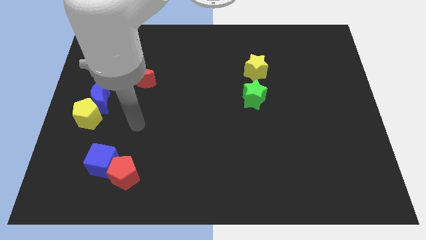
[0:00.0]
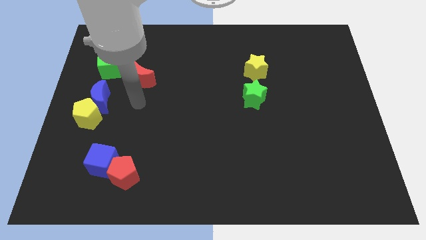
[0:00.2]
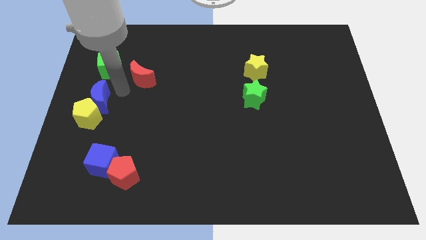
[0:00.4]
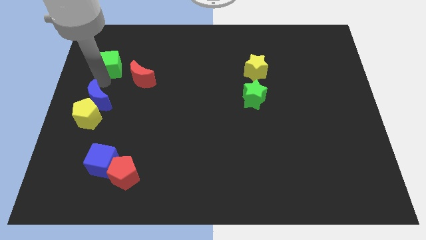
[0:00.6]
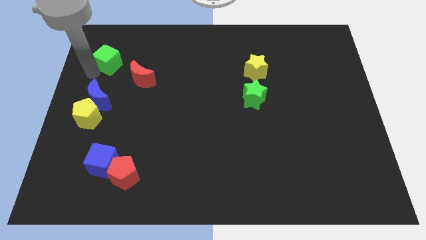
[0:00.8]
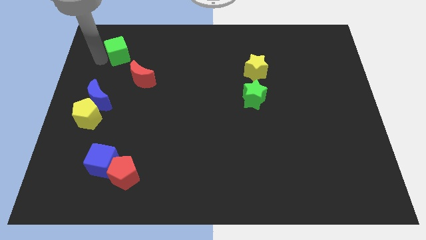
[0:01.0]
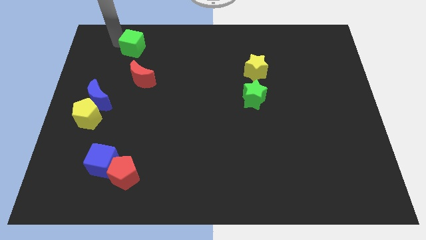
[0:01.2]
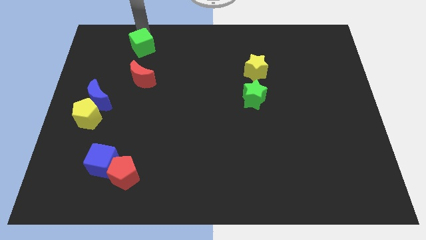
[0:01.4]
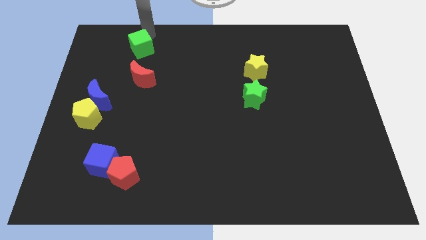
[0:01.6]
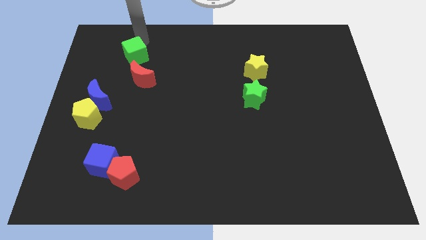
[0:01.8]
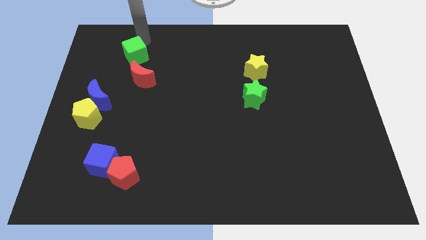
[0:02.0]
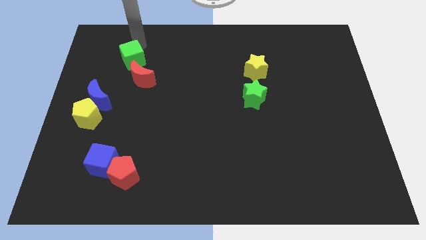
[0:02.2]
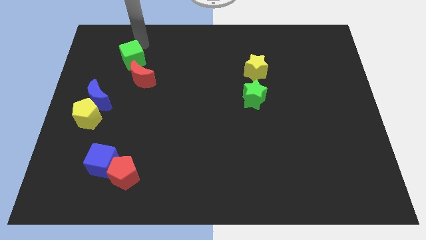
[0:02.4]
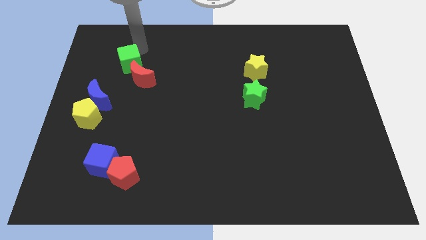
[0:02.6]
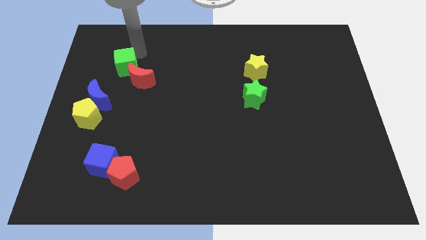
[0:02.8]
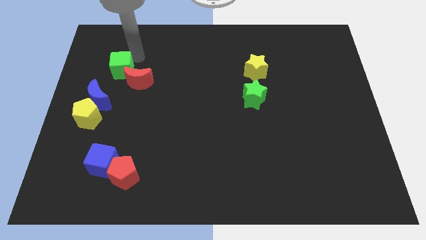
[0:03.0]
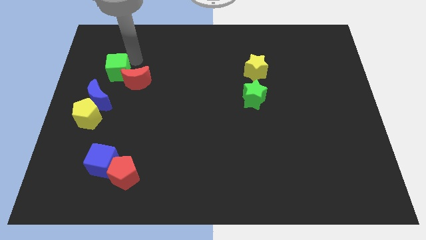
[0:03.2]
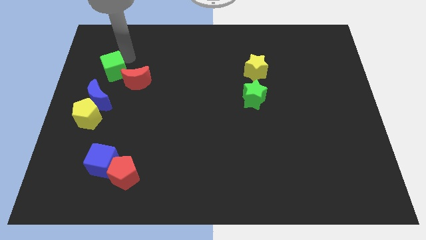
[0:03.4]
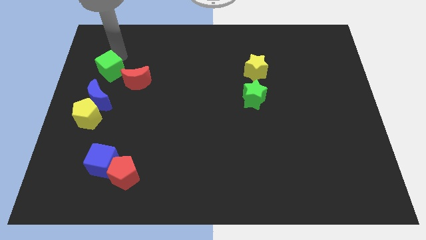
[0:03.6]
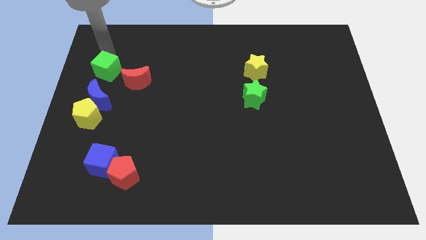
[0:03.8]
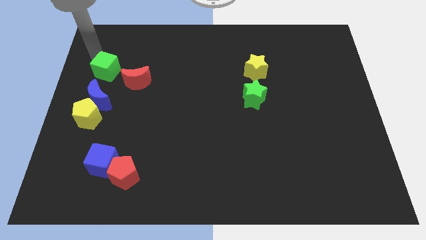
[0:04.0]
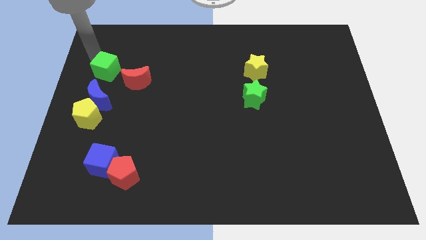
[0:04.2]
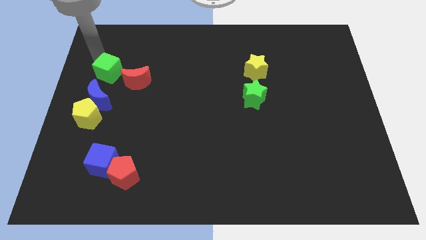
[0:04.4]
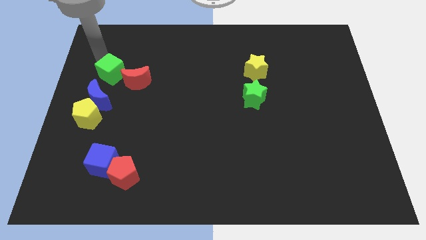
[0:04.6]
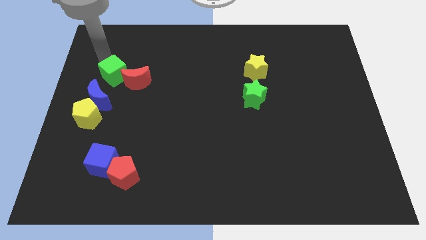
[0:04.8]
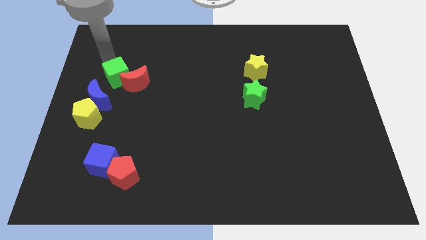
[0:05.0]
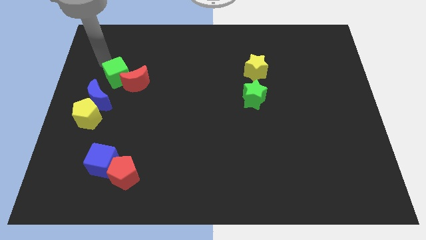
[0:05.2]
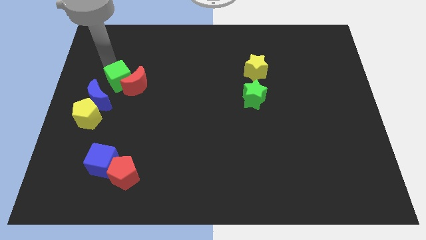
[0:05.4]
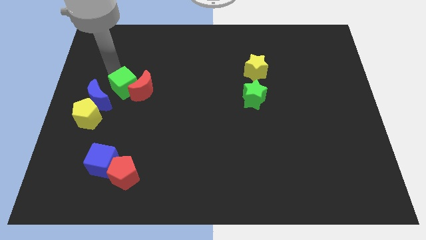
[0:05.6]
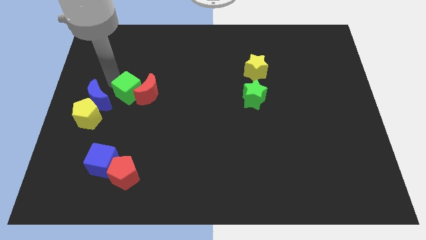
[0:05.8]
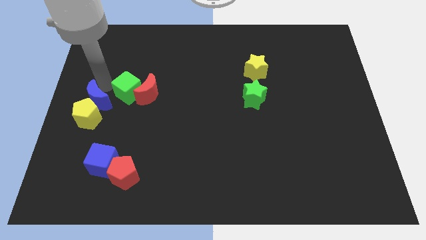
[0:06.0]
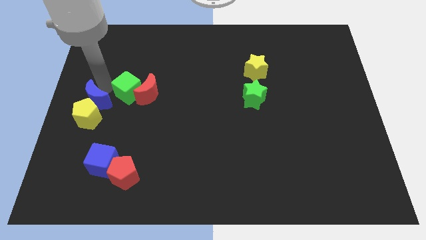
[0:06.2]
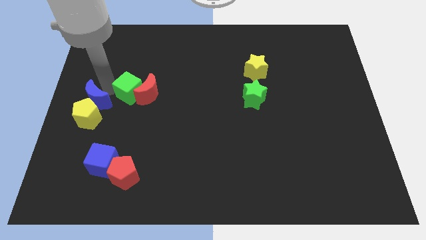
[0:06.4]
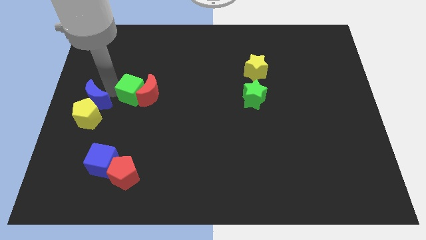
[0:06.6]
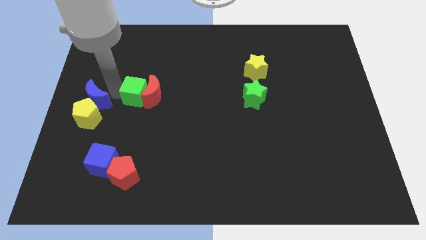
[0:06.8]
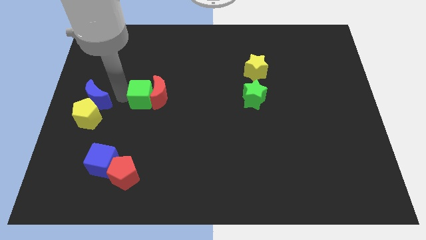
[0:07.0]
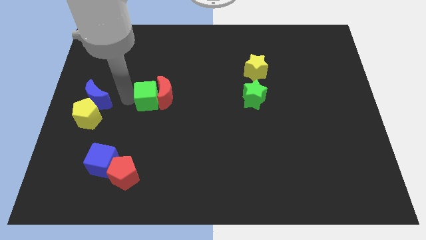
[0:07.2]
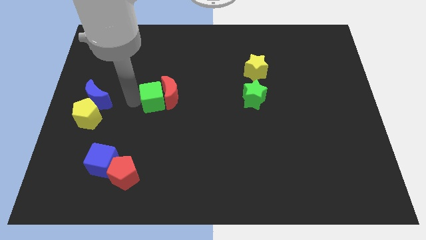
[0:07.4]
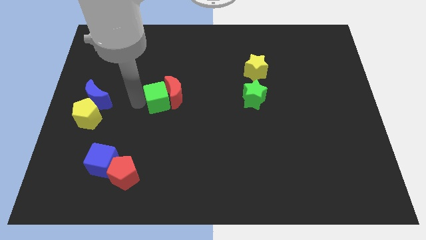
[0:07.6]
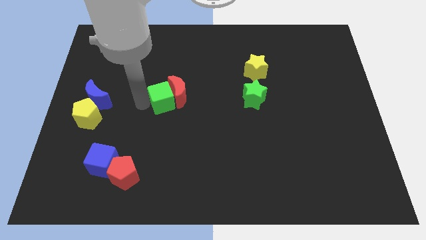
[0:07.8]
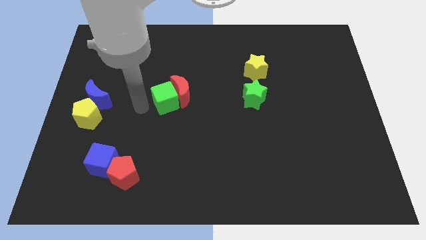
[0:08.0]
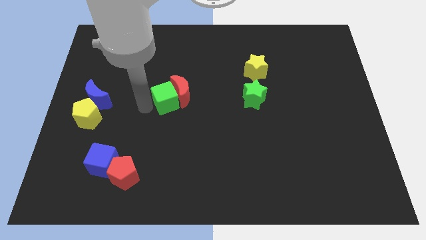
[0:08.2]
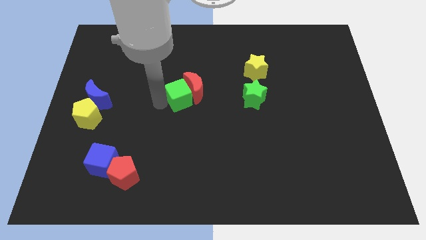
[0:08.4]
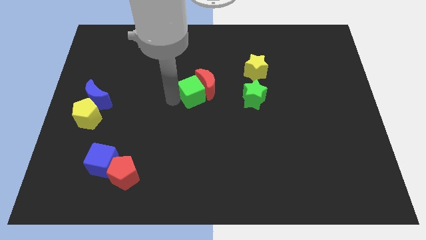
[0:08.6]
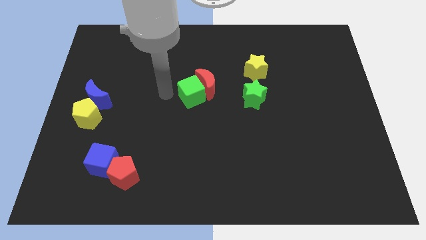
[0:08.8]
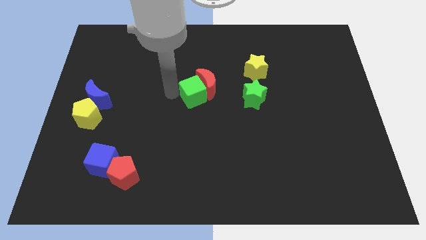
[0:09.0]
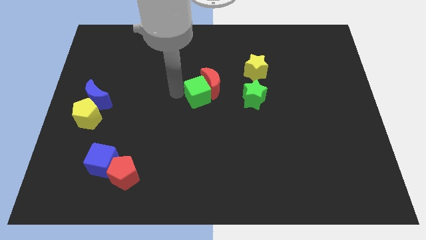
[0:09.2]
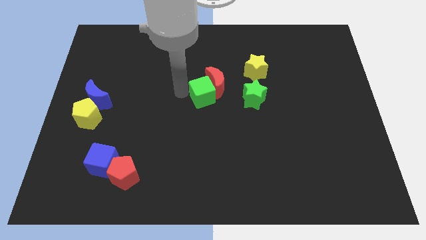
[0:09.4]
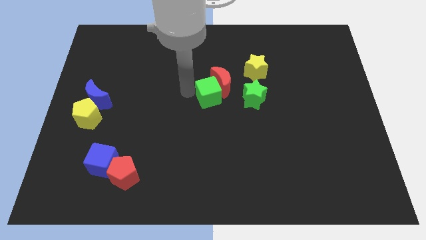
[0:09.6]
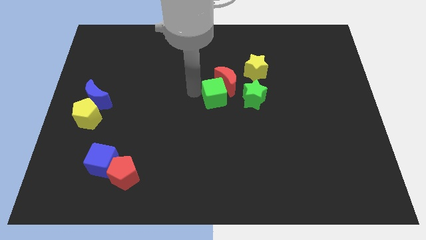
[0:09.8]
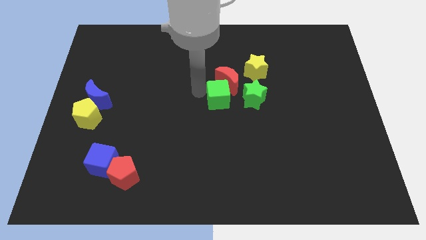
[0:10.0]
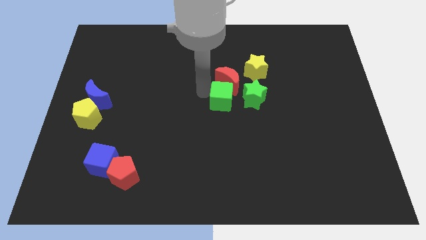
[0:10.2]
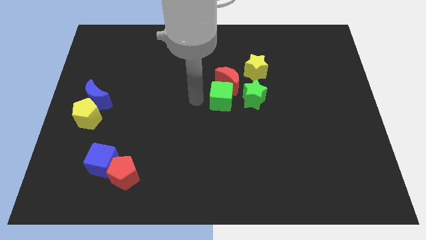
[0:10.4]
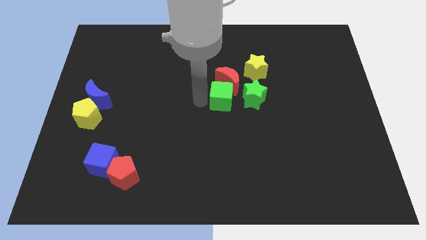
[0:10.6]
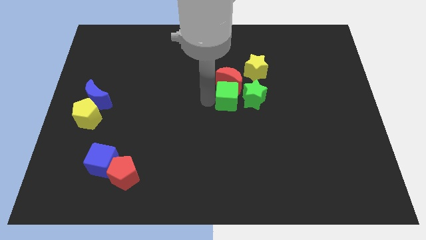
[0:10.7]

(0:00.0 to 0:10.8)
put the green cube next to the green star

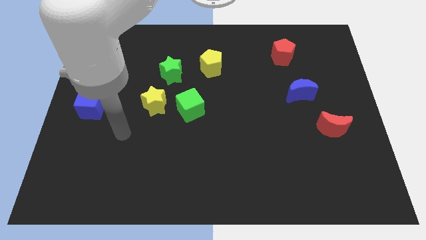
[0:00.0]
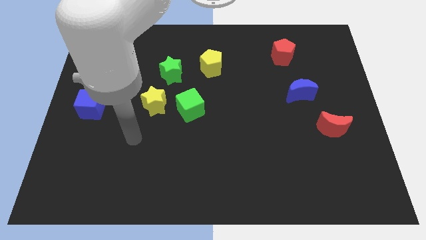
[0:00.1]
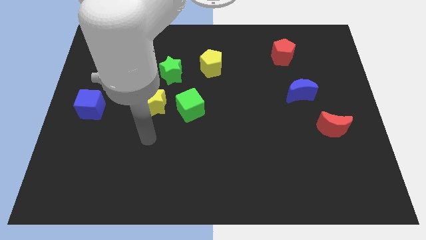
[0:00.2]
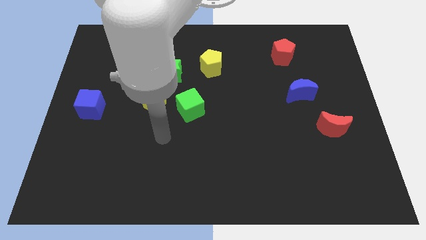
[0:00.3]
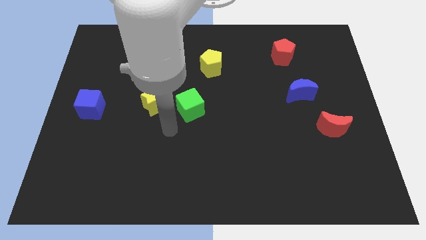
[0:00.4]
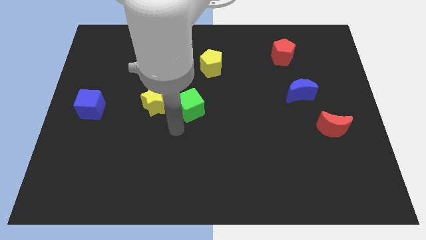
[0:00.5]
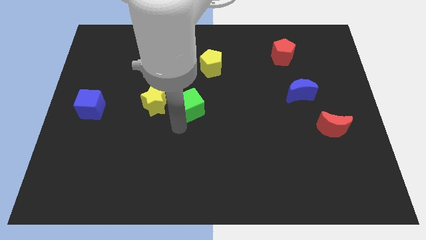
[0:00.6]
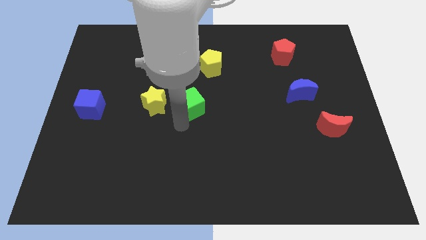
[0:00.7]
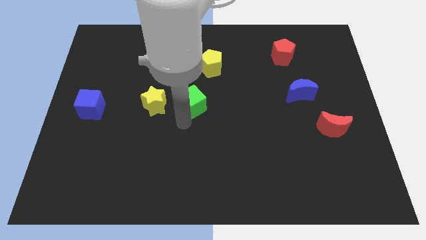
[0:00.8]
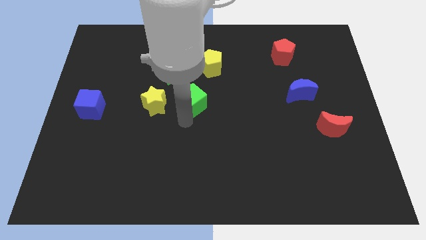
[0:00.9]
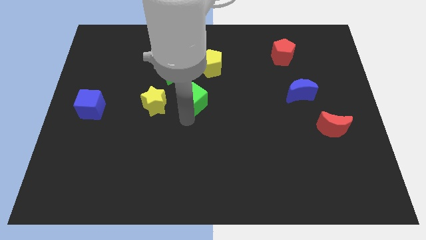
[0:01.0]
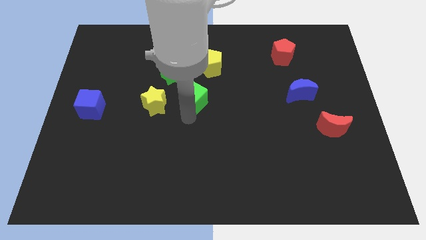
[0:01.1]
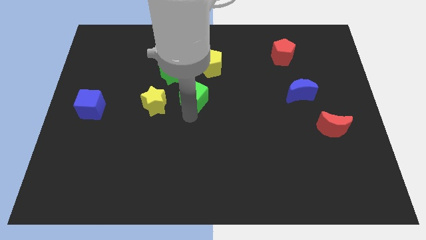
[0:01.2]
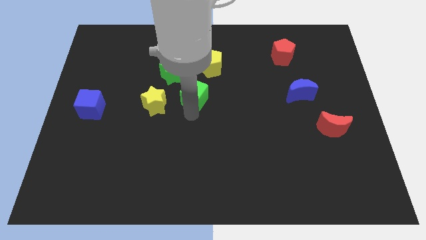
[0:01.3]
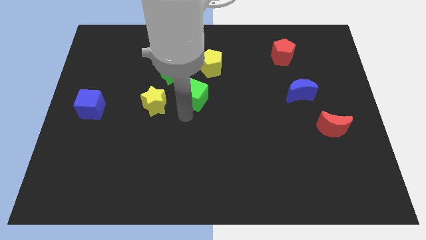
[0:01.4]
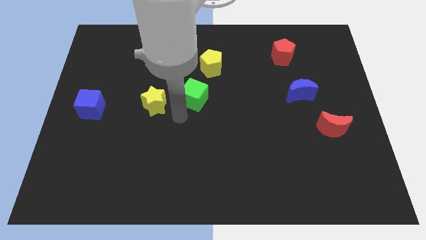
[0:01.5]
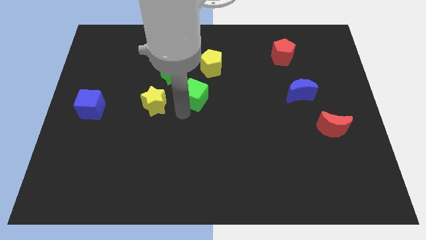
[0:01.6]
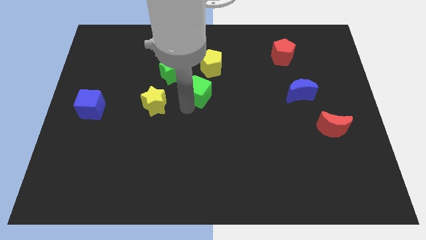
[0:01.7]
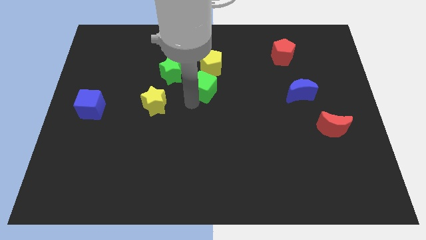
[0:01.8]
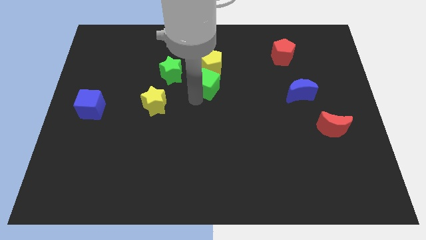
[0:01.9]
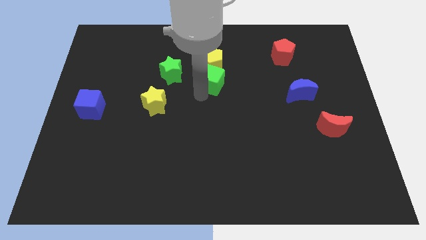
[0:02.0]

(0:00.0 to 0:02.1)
slide the green cube next to the yellow pentagon

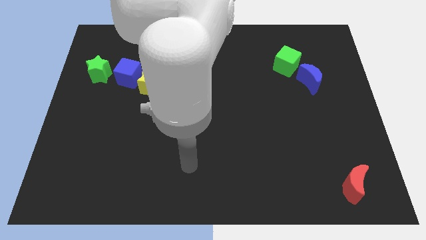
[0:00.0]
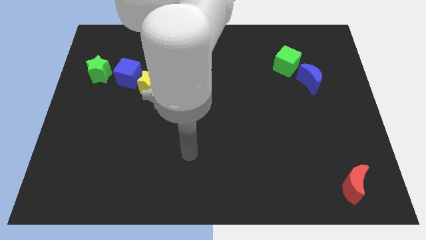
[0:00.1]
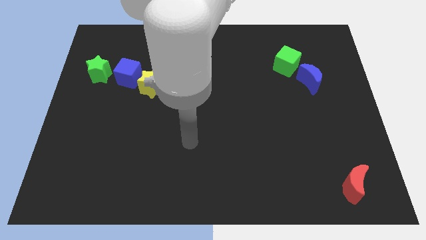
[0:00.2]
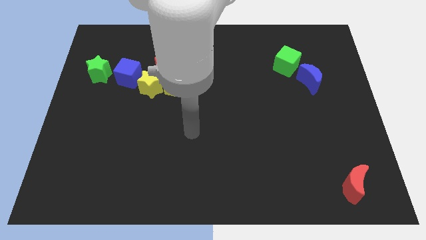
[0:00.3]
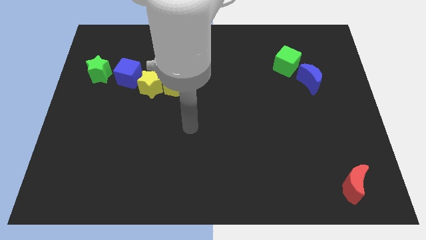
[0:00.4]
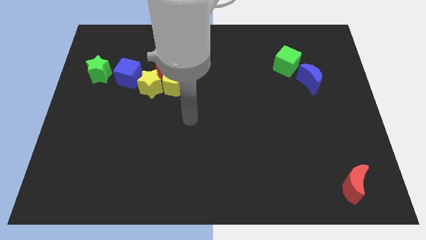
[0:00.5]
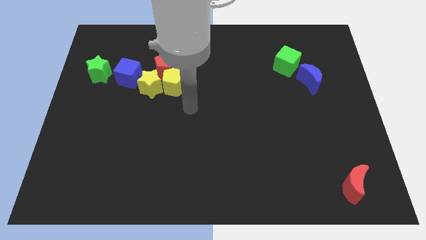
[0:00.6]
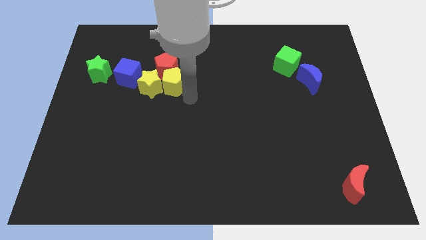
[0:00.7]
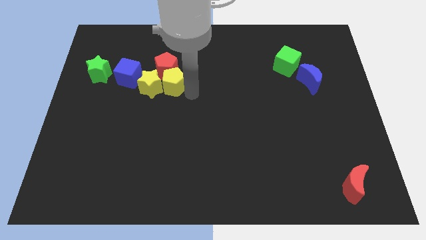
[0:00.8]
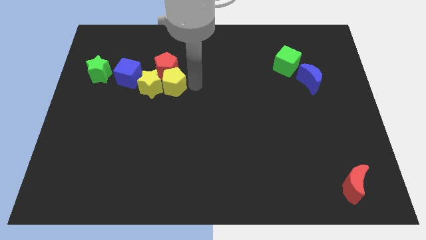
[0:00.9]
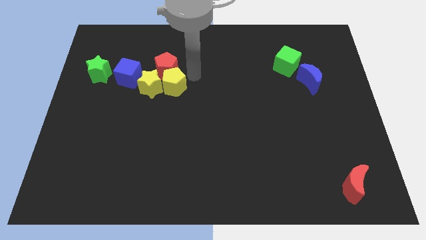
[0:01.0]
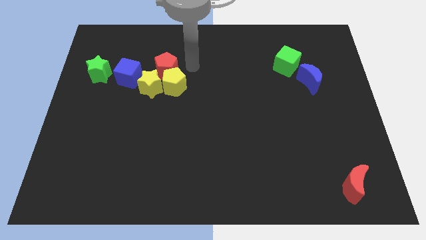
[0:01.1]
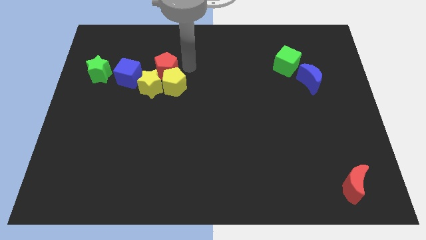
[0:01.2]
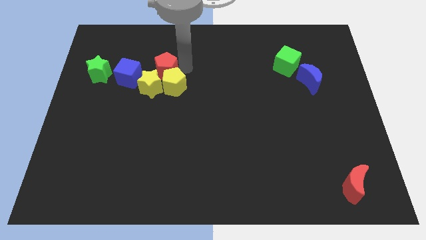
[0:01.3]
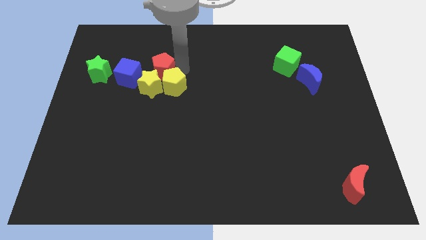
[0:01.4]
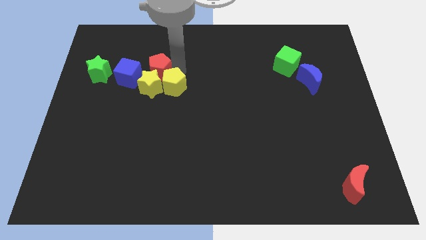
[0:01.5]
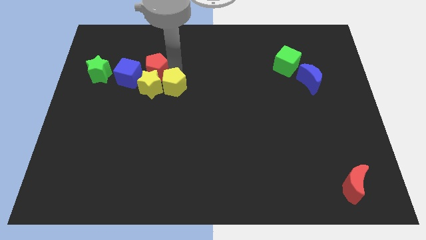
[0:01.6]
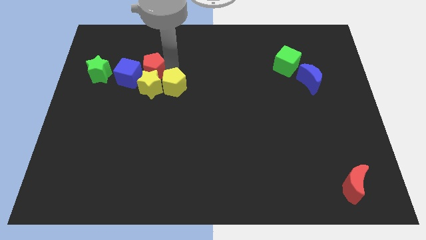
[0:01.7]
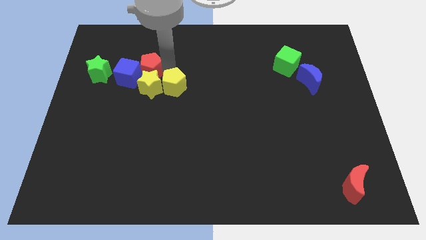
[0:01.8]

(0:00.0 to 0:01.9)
slide the red pentagon to the blue cube
